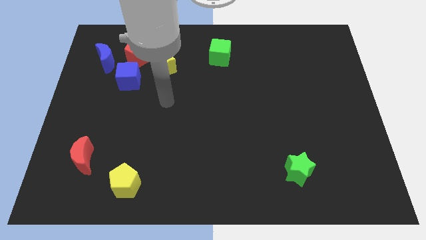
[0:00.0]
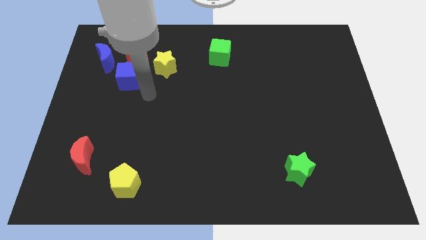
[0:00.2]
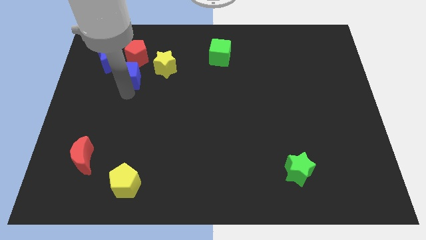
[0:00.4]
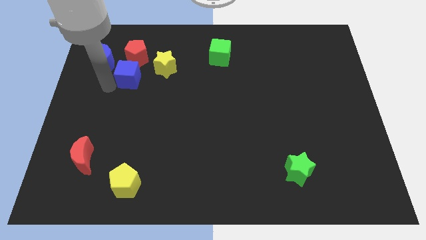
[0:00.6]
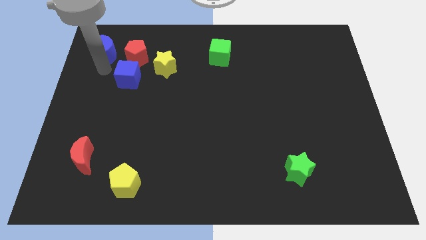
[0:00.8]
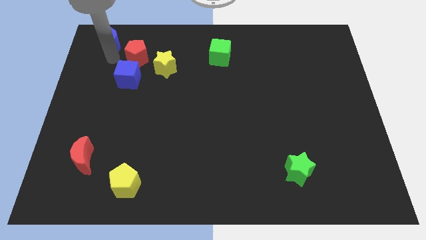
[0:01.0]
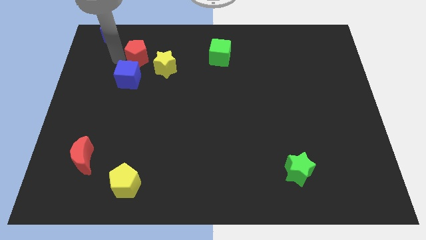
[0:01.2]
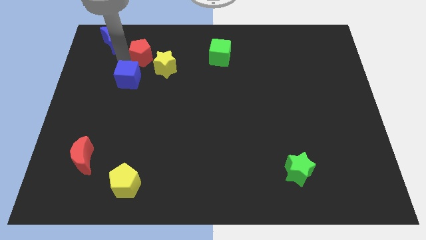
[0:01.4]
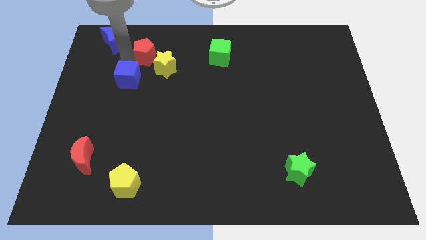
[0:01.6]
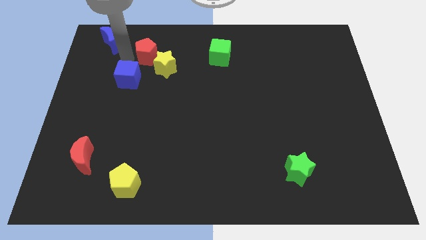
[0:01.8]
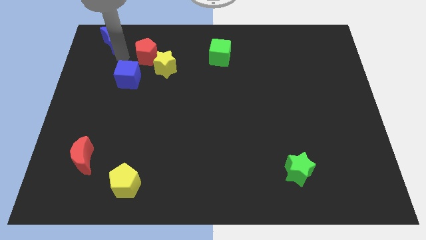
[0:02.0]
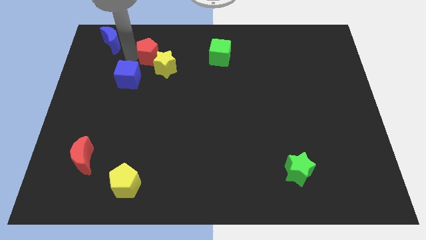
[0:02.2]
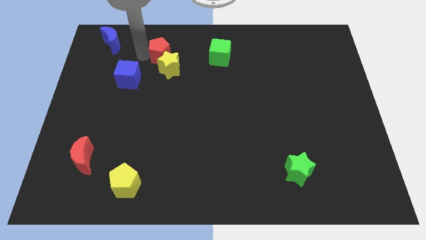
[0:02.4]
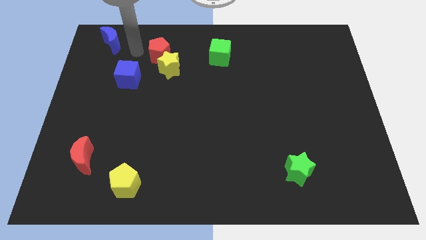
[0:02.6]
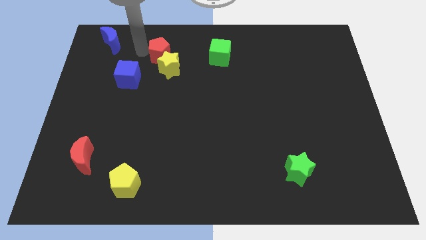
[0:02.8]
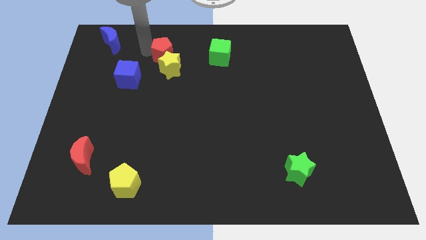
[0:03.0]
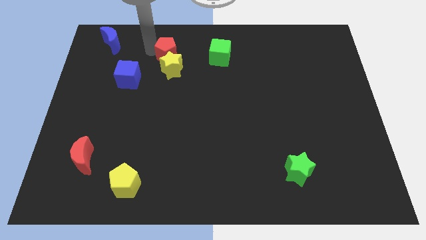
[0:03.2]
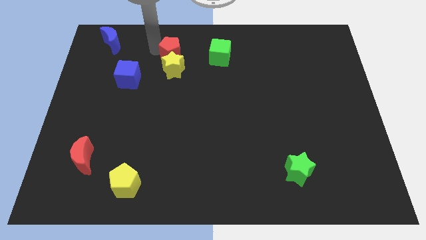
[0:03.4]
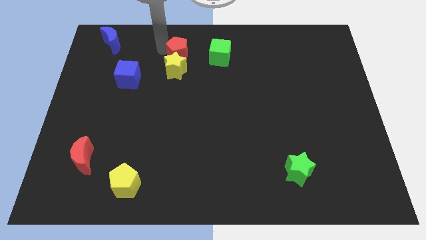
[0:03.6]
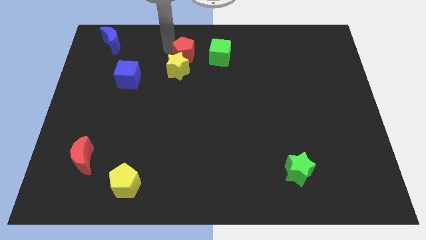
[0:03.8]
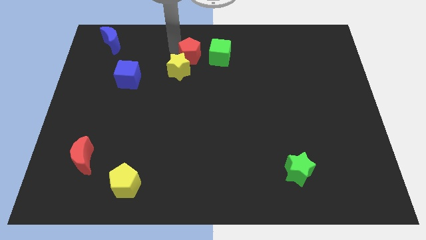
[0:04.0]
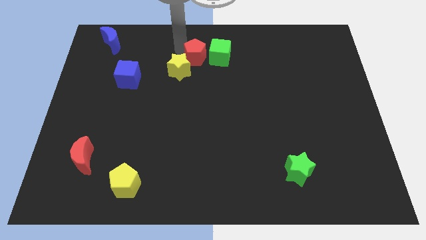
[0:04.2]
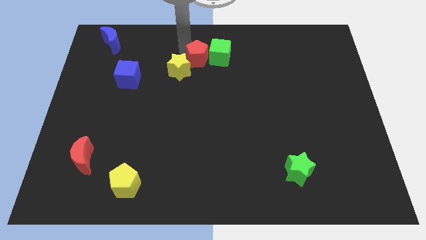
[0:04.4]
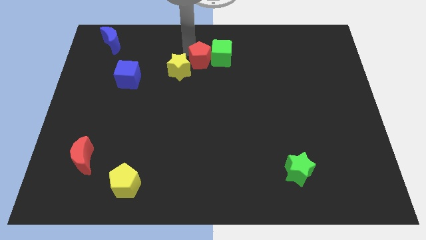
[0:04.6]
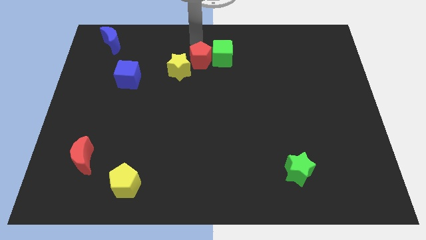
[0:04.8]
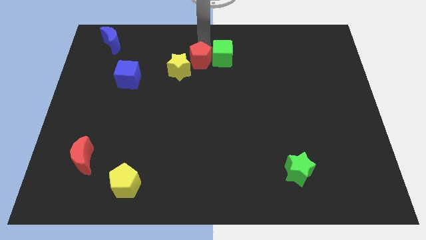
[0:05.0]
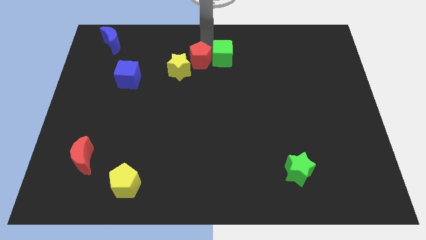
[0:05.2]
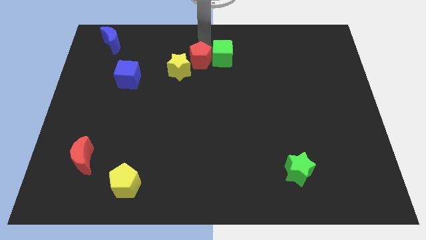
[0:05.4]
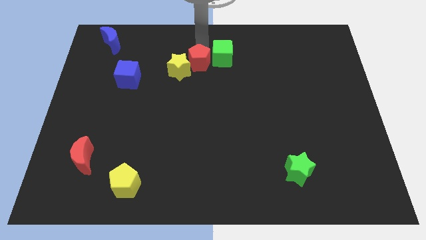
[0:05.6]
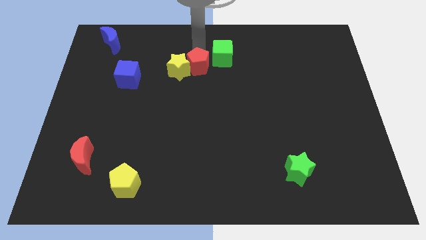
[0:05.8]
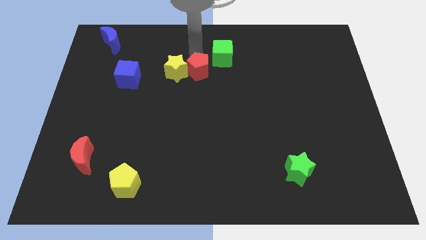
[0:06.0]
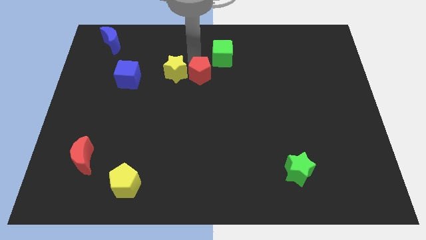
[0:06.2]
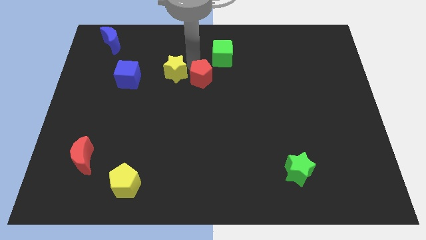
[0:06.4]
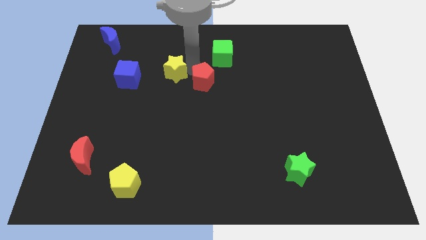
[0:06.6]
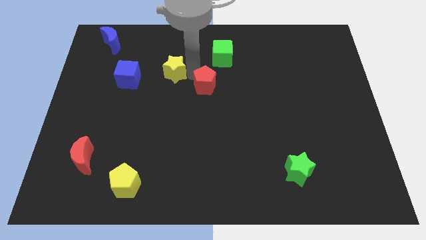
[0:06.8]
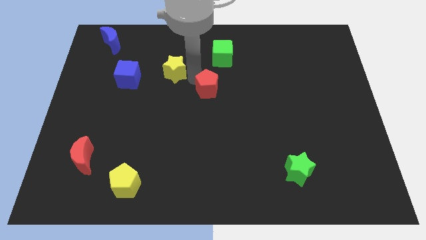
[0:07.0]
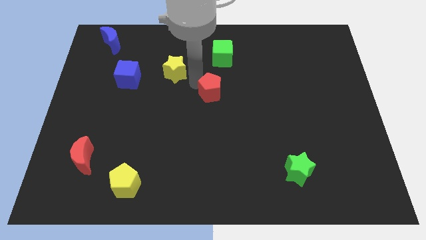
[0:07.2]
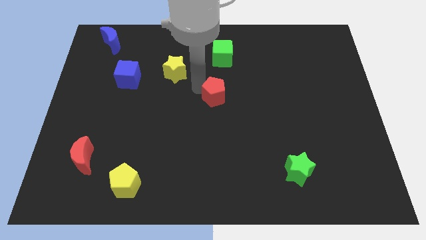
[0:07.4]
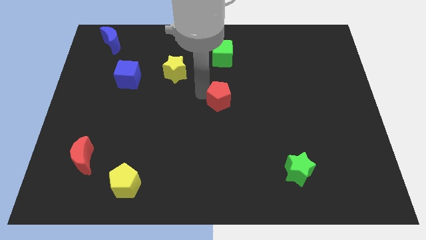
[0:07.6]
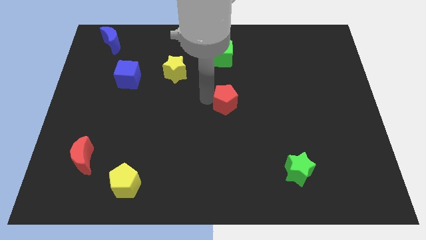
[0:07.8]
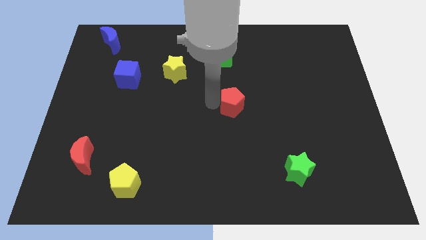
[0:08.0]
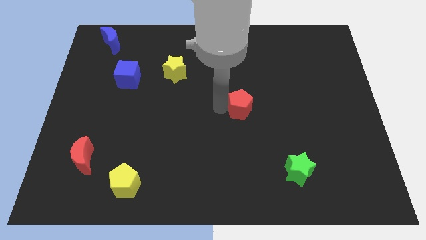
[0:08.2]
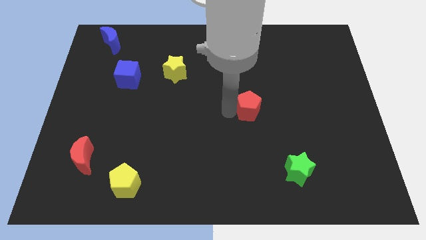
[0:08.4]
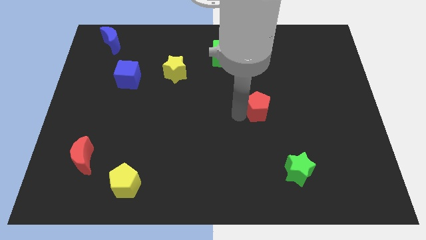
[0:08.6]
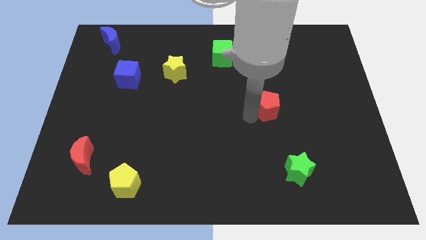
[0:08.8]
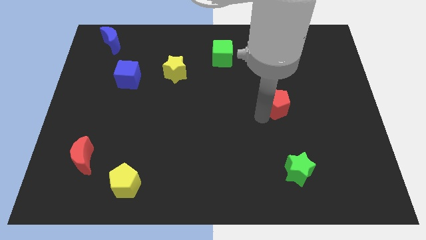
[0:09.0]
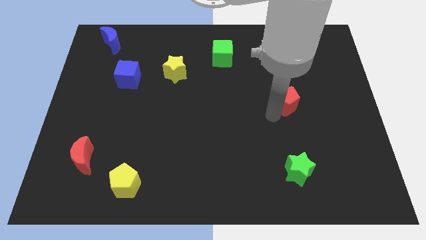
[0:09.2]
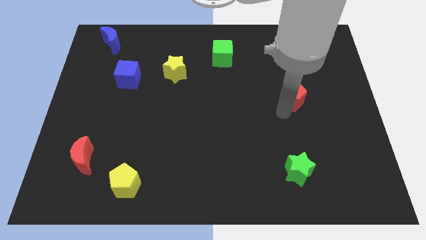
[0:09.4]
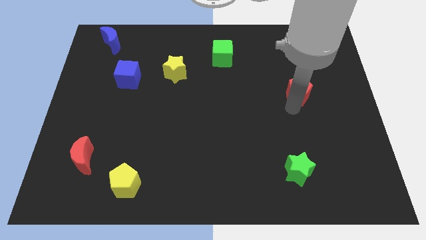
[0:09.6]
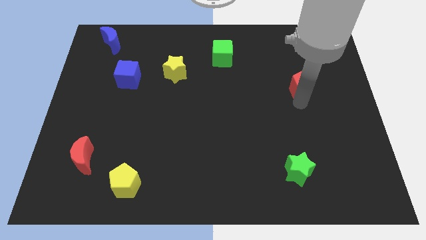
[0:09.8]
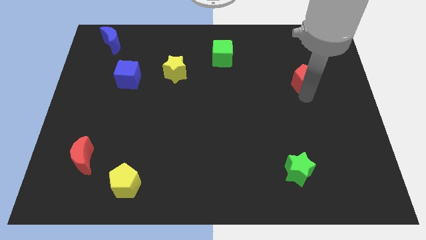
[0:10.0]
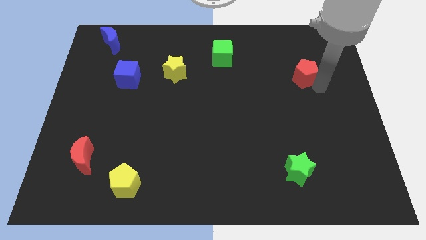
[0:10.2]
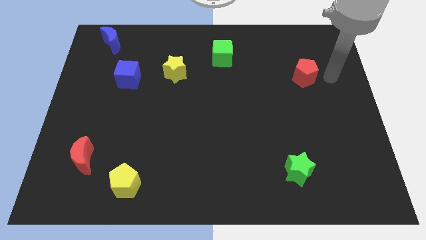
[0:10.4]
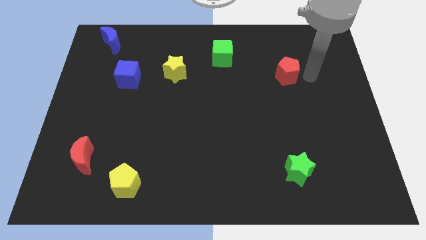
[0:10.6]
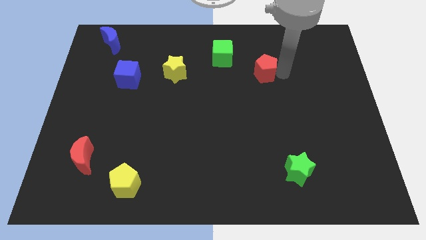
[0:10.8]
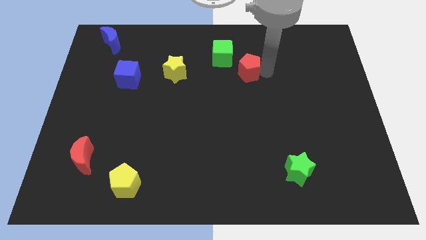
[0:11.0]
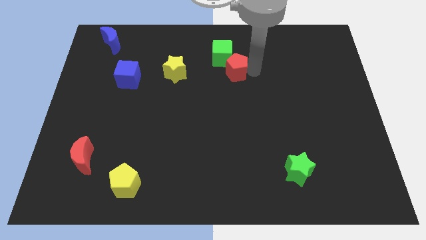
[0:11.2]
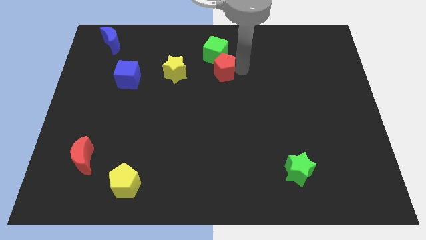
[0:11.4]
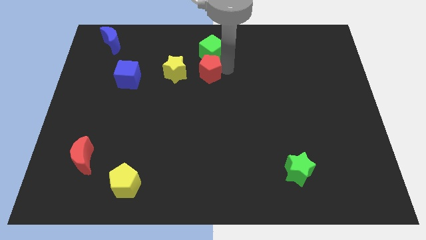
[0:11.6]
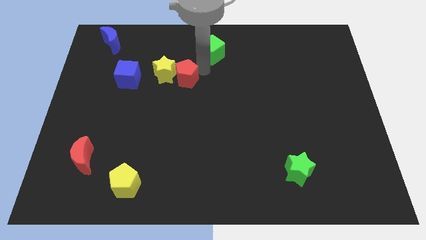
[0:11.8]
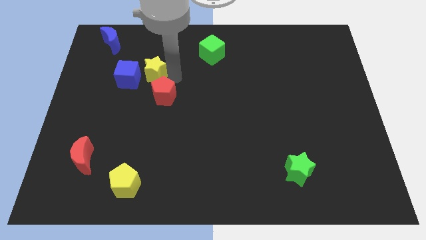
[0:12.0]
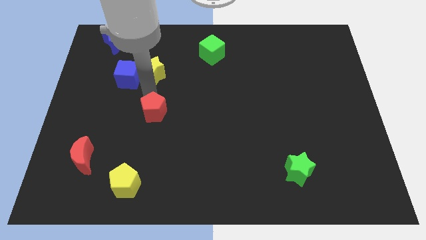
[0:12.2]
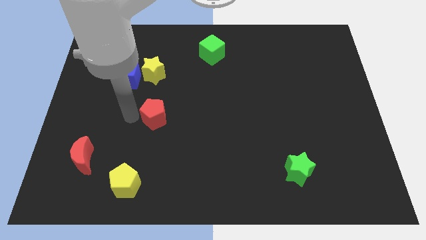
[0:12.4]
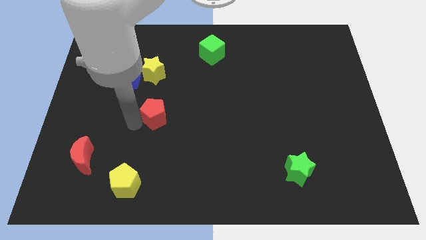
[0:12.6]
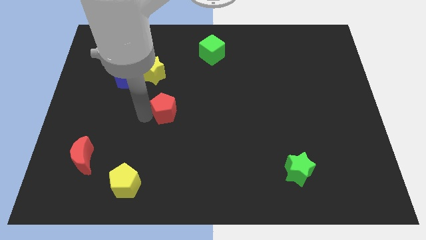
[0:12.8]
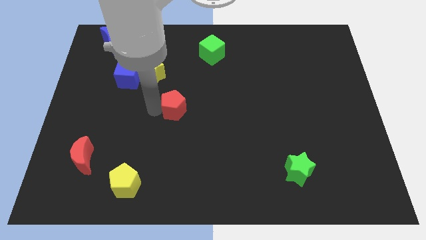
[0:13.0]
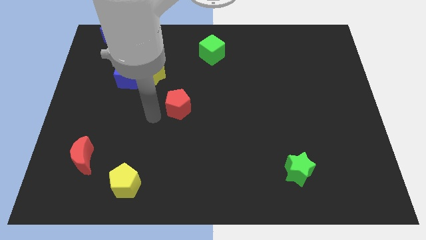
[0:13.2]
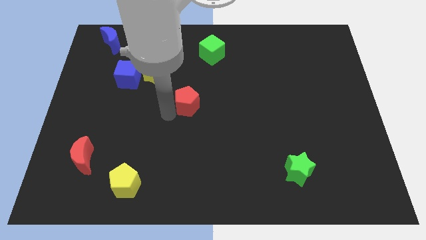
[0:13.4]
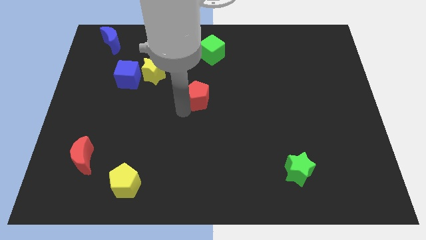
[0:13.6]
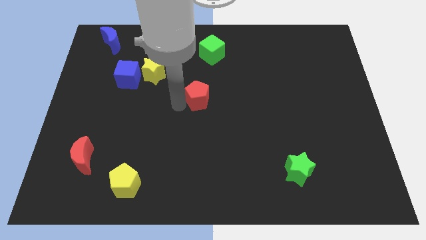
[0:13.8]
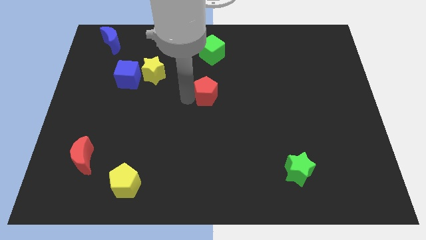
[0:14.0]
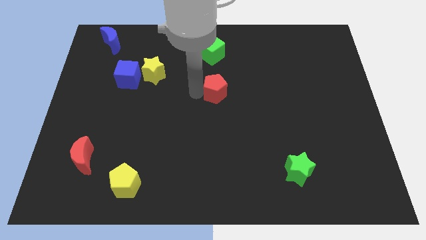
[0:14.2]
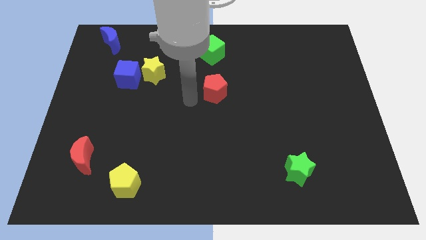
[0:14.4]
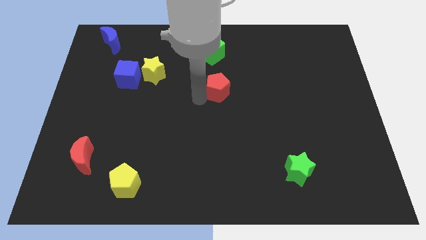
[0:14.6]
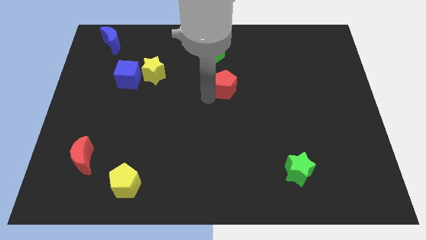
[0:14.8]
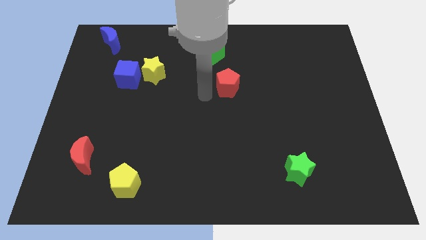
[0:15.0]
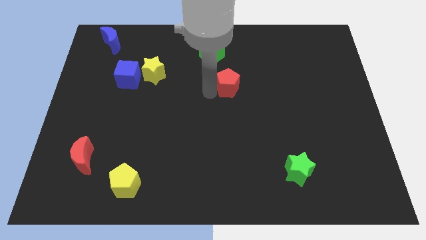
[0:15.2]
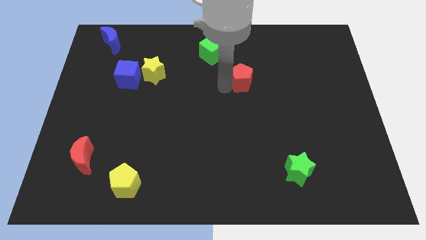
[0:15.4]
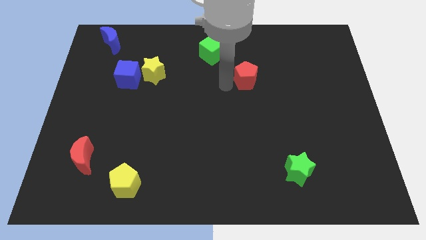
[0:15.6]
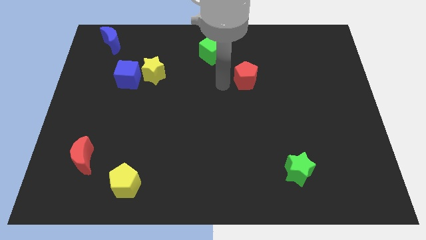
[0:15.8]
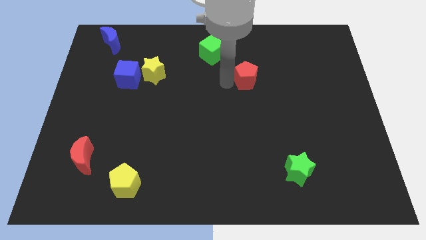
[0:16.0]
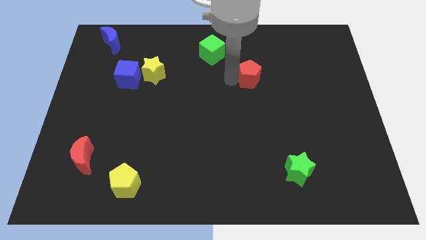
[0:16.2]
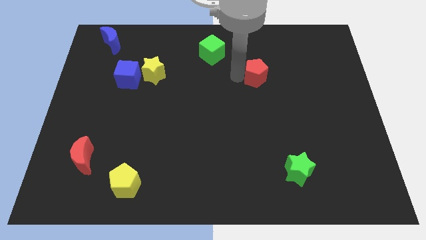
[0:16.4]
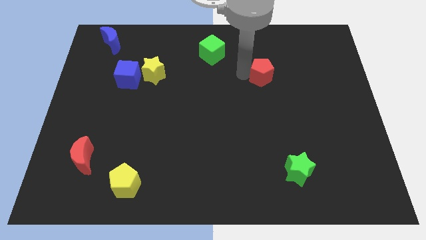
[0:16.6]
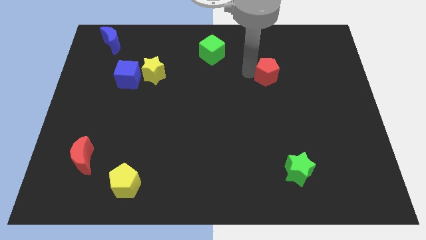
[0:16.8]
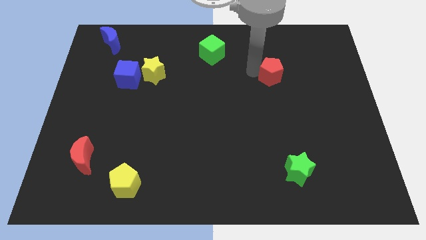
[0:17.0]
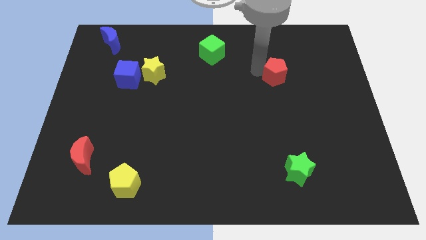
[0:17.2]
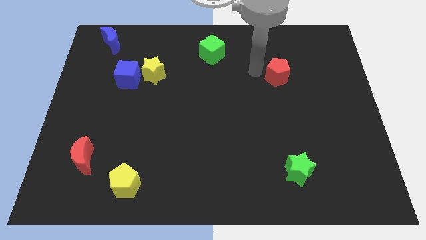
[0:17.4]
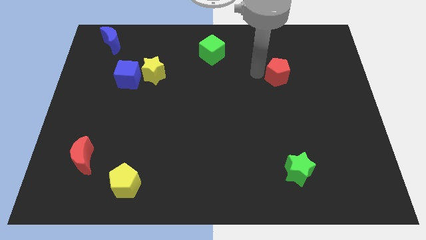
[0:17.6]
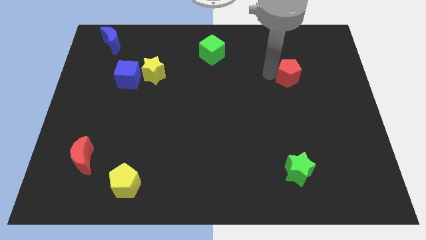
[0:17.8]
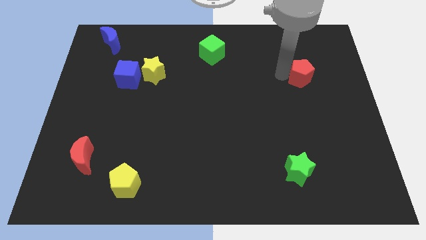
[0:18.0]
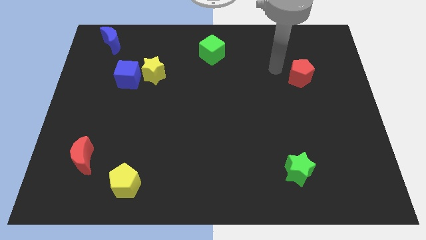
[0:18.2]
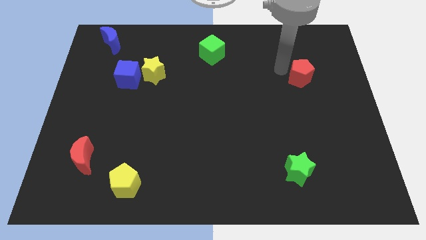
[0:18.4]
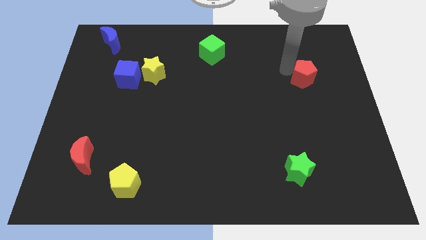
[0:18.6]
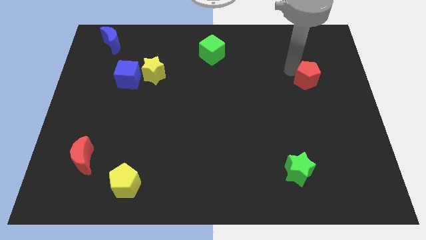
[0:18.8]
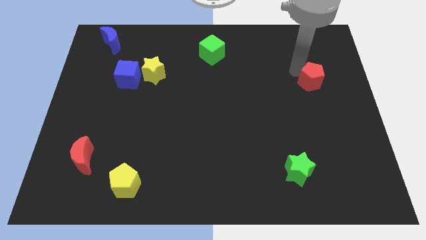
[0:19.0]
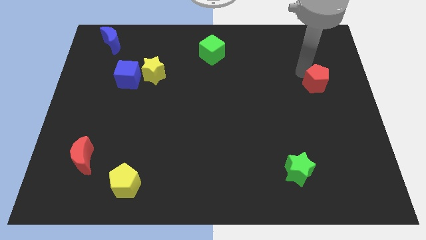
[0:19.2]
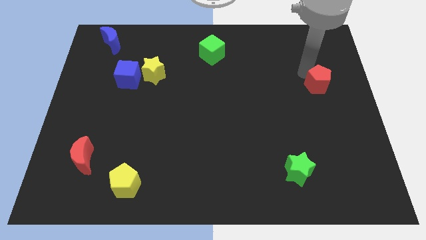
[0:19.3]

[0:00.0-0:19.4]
move the red pentagon to the center right
